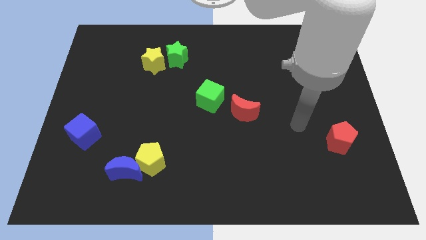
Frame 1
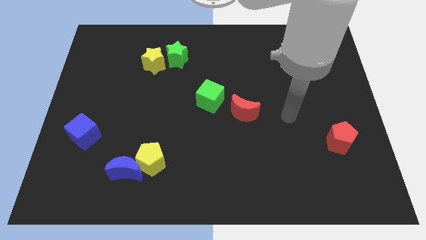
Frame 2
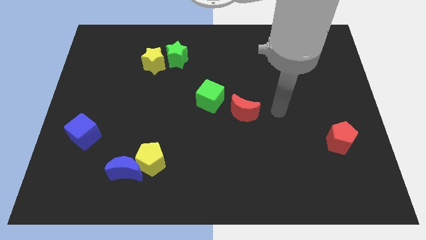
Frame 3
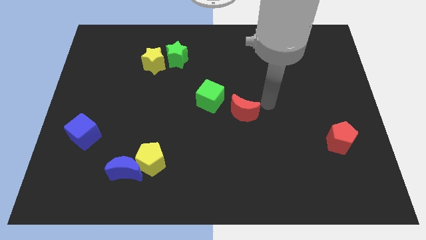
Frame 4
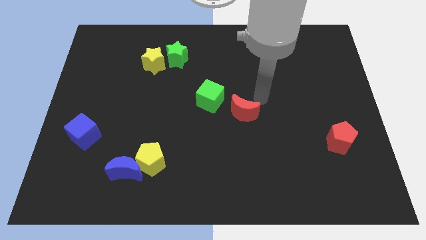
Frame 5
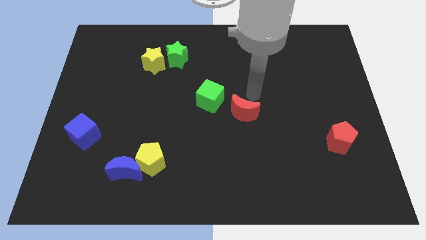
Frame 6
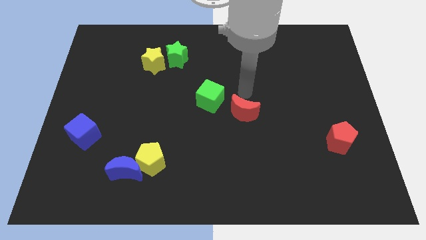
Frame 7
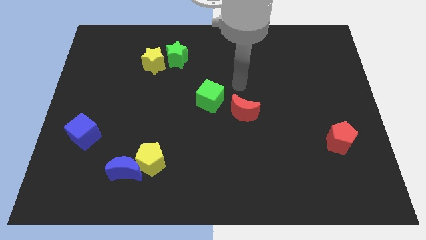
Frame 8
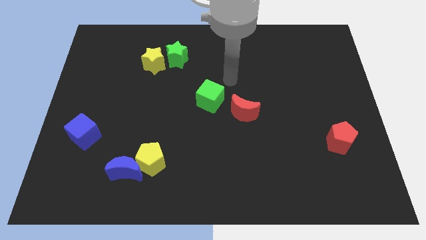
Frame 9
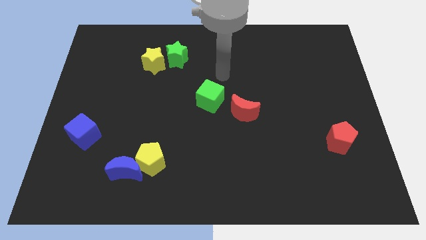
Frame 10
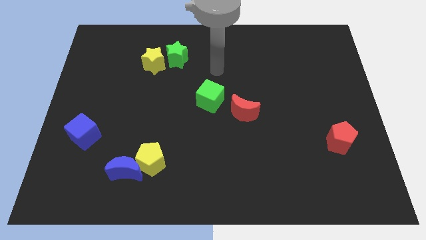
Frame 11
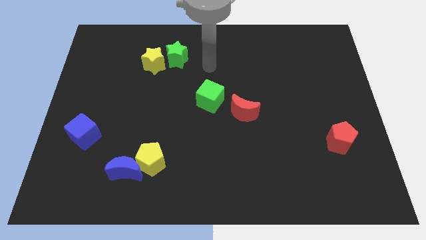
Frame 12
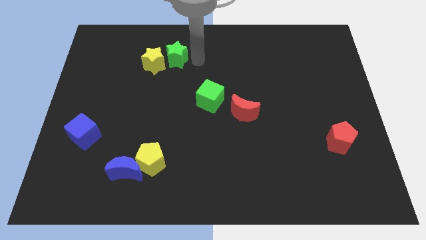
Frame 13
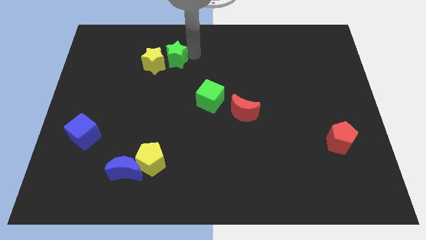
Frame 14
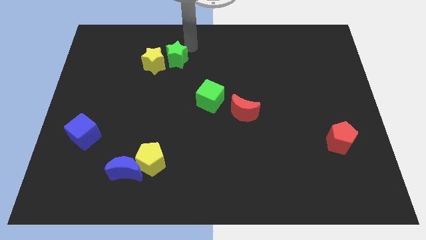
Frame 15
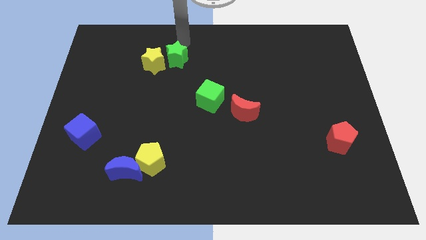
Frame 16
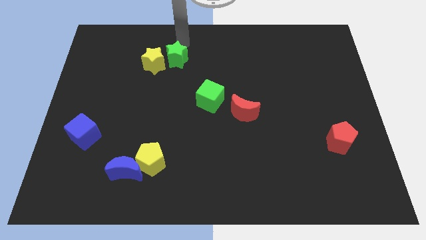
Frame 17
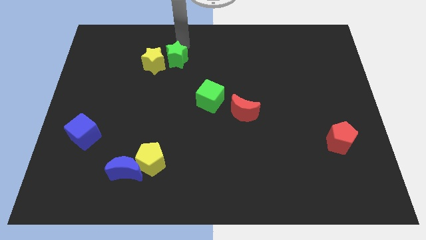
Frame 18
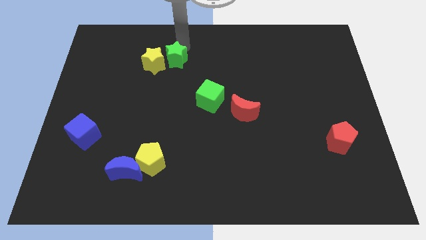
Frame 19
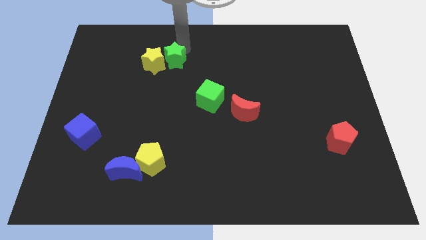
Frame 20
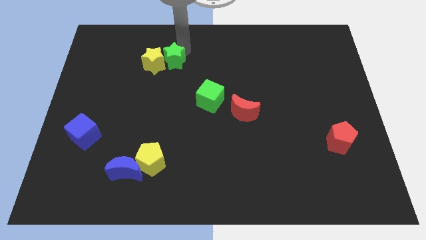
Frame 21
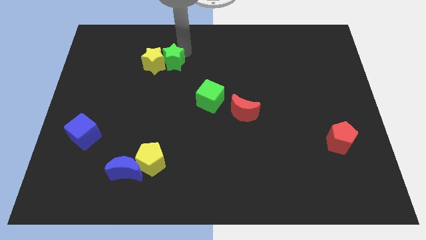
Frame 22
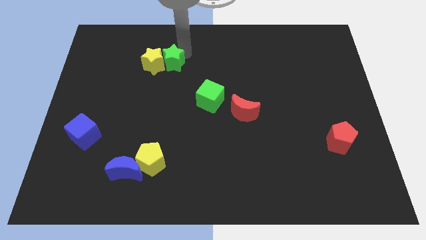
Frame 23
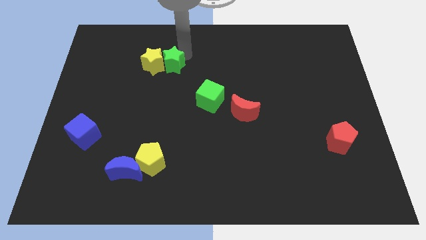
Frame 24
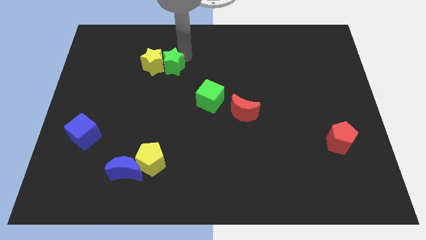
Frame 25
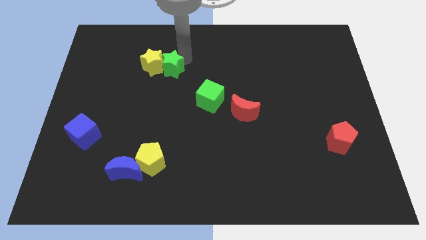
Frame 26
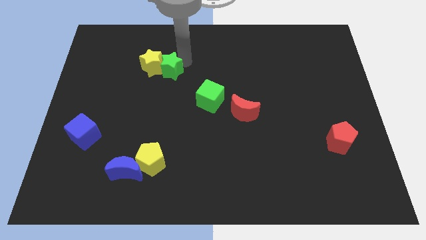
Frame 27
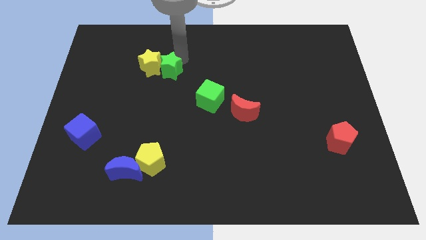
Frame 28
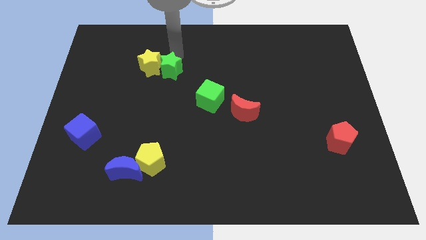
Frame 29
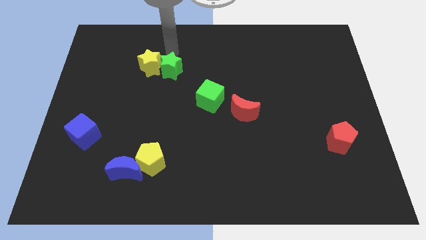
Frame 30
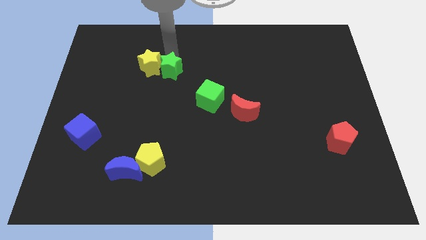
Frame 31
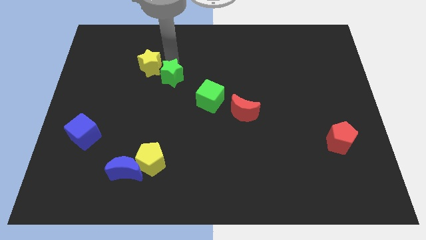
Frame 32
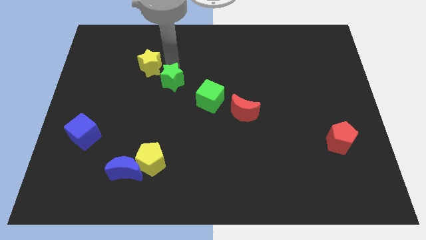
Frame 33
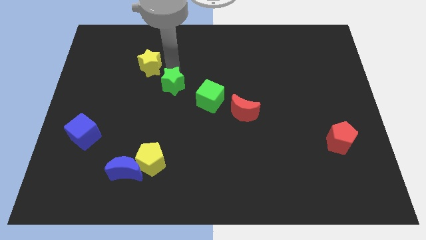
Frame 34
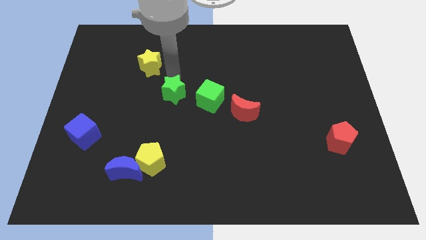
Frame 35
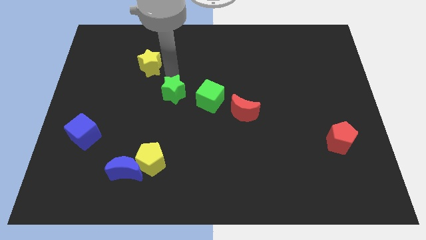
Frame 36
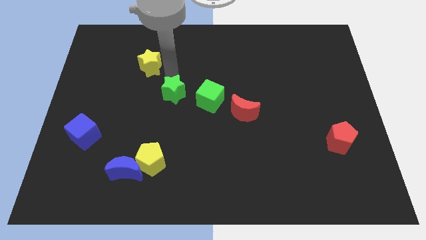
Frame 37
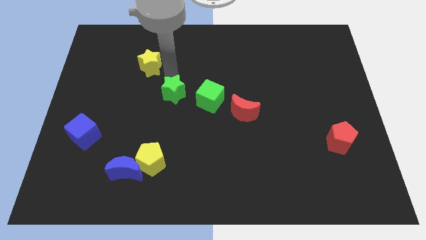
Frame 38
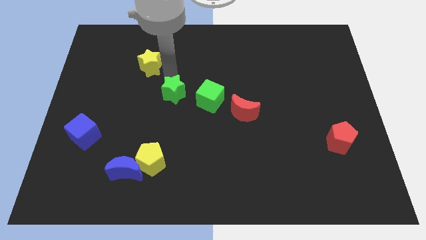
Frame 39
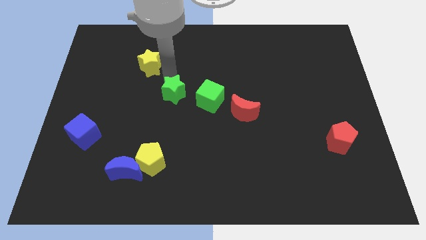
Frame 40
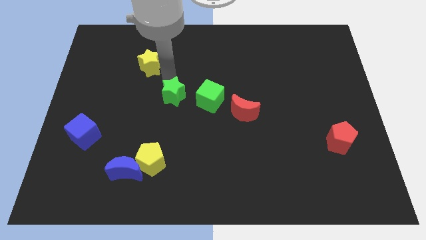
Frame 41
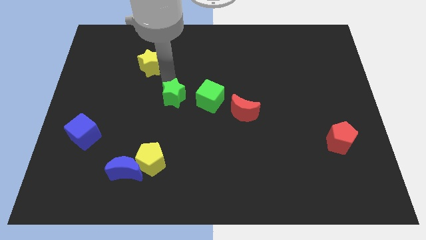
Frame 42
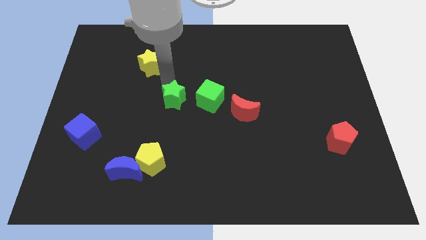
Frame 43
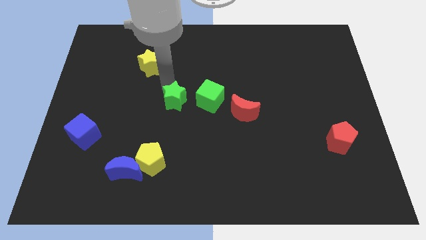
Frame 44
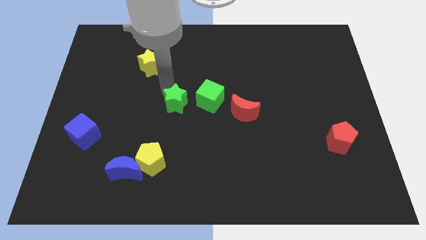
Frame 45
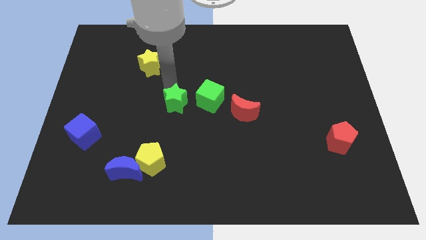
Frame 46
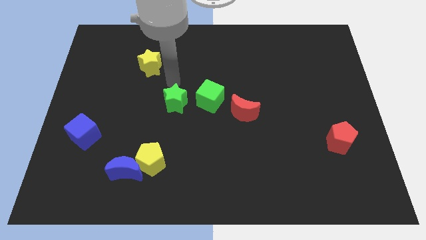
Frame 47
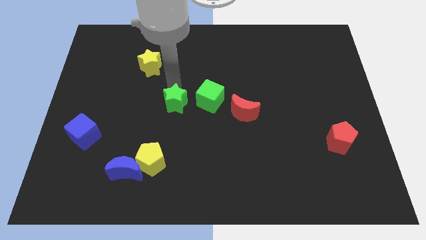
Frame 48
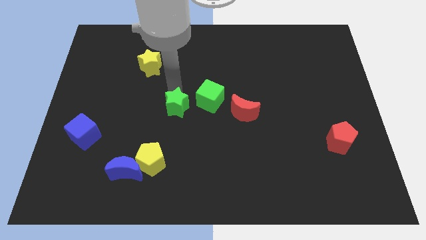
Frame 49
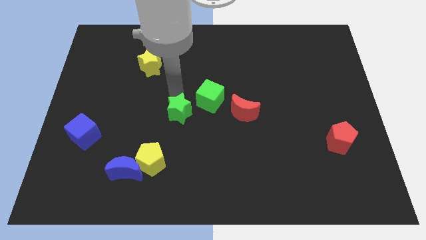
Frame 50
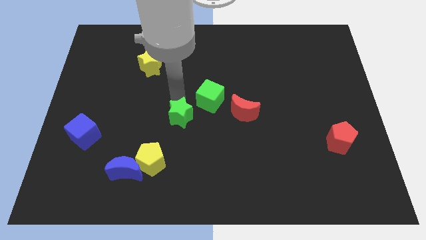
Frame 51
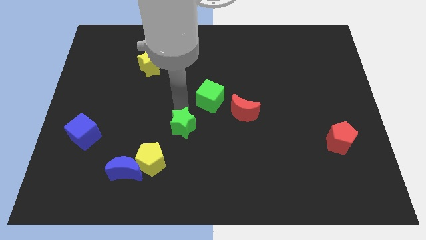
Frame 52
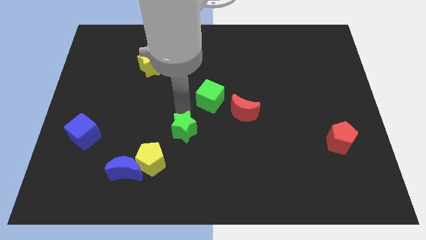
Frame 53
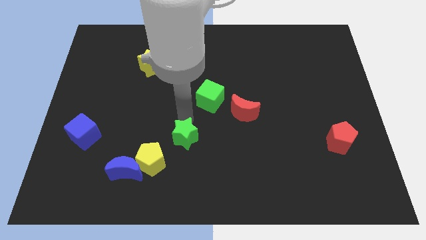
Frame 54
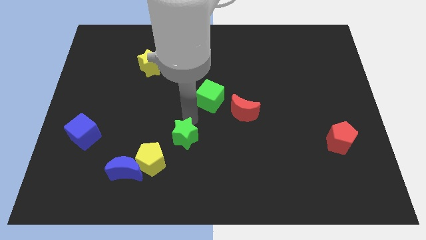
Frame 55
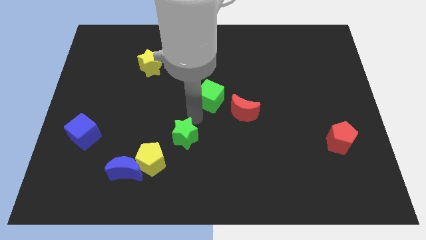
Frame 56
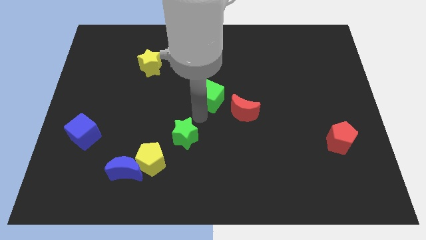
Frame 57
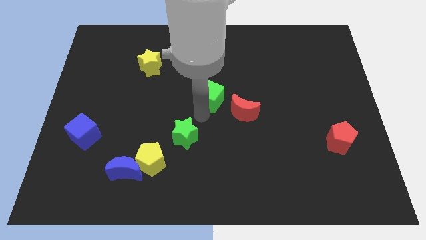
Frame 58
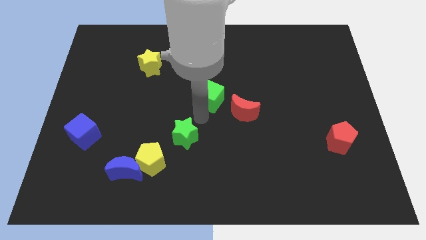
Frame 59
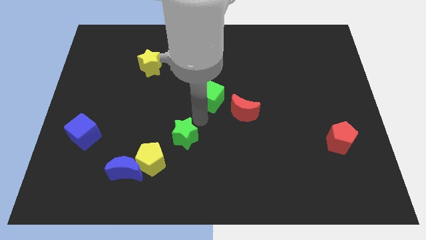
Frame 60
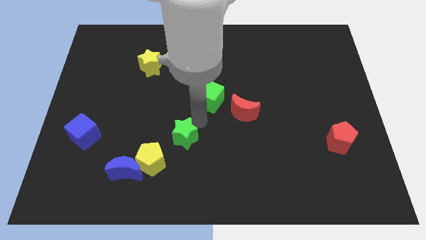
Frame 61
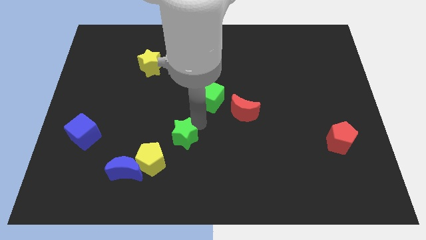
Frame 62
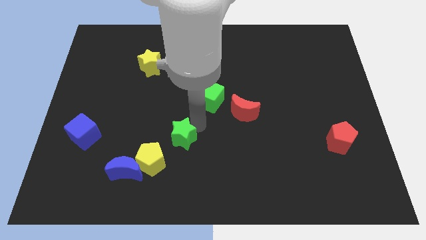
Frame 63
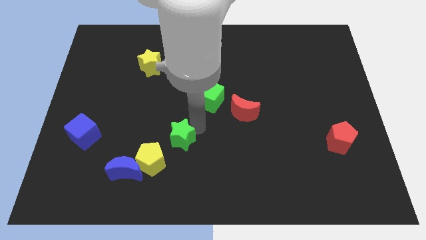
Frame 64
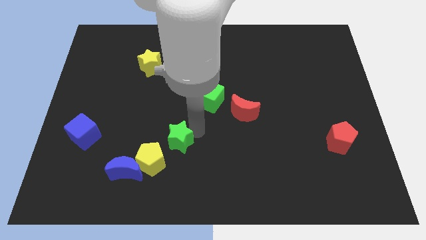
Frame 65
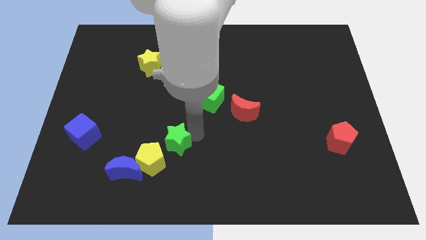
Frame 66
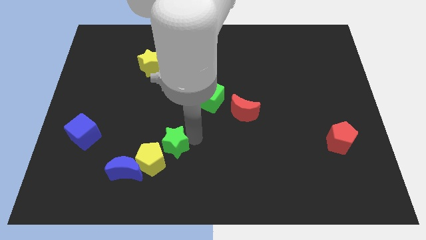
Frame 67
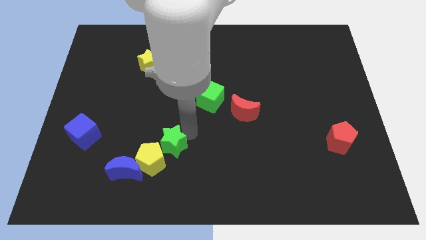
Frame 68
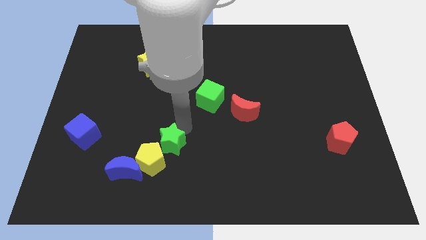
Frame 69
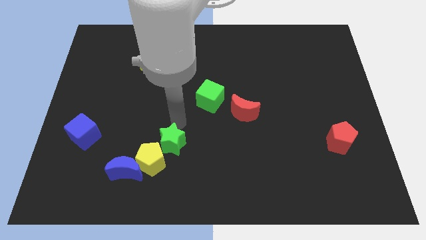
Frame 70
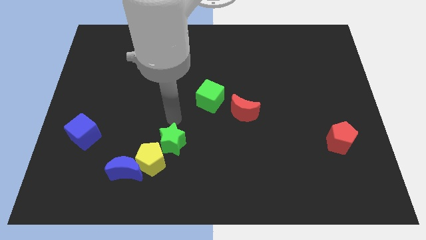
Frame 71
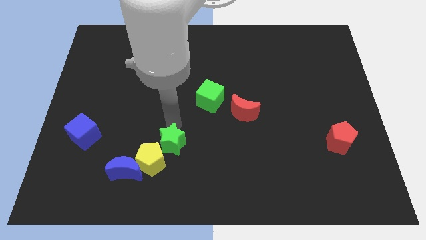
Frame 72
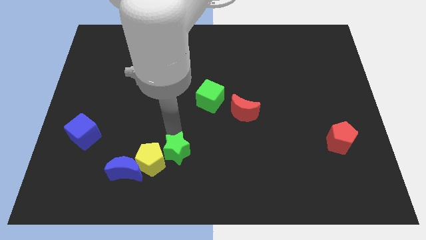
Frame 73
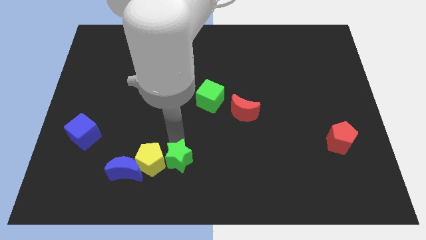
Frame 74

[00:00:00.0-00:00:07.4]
move the green star diagonally down and to the right of the yellow pentagon
